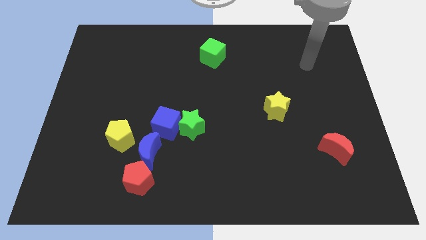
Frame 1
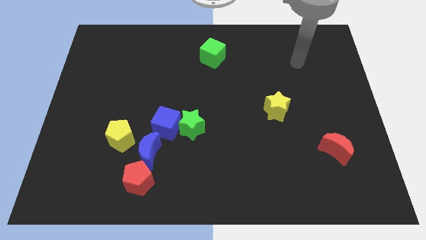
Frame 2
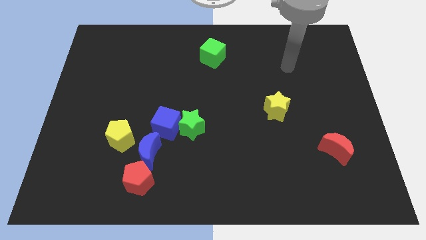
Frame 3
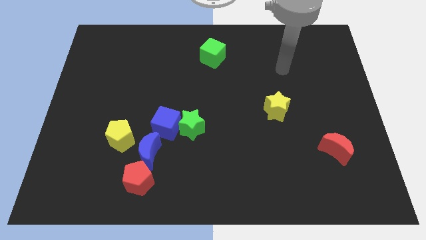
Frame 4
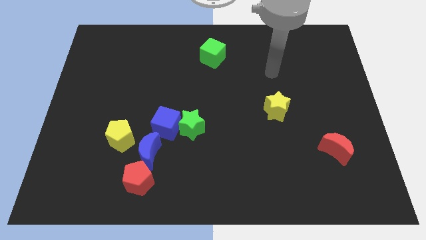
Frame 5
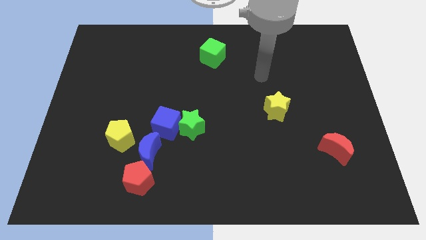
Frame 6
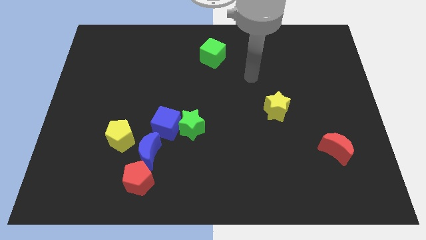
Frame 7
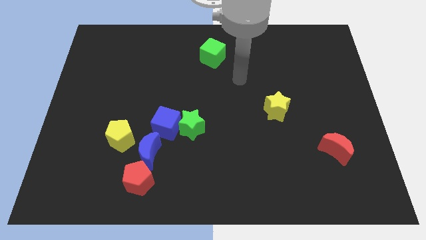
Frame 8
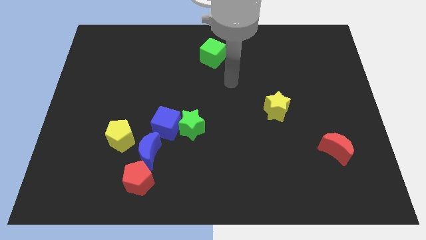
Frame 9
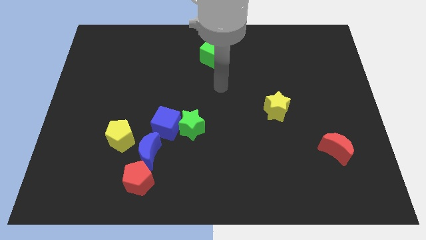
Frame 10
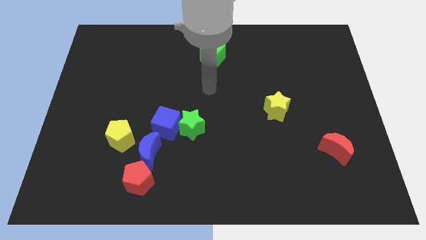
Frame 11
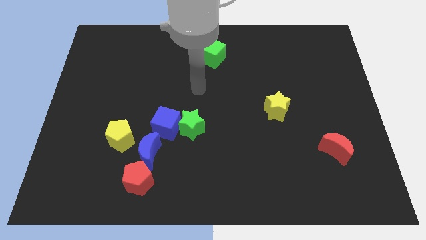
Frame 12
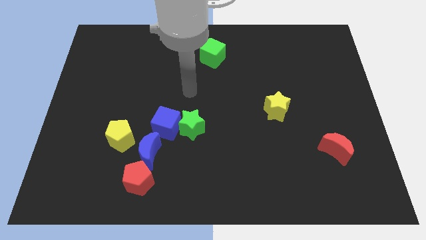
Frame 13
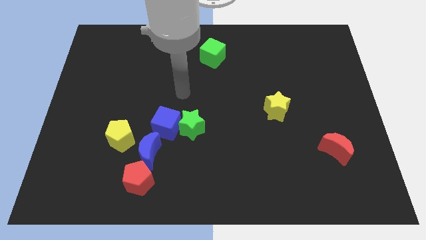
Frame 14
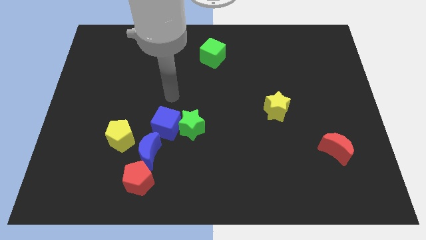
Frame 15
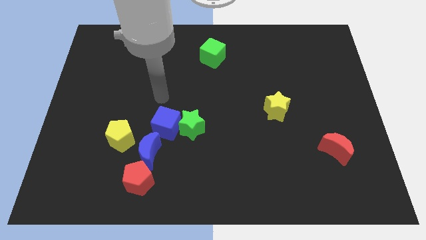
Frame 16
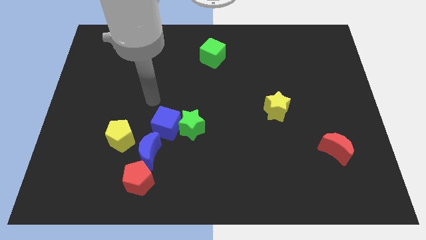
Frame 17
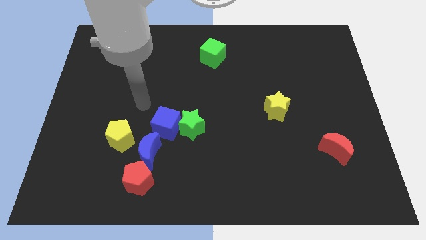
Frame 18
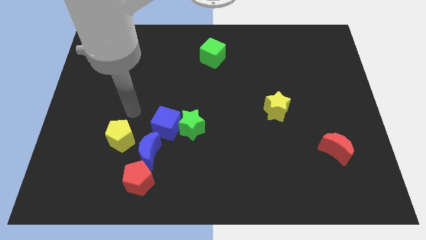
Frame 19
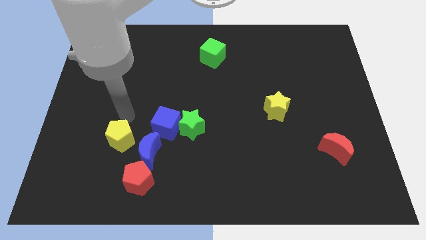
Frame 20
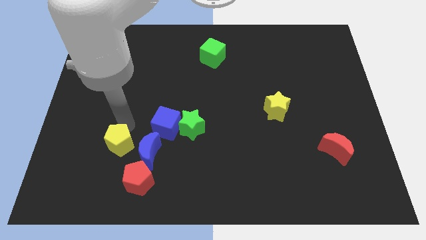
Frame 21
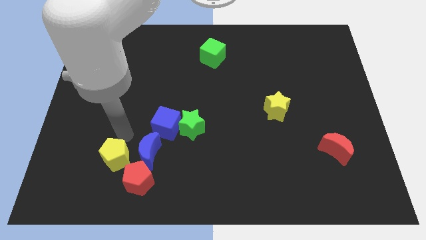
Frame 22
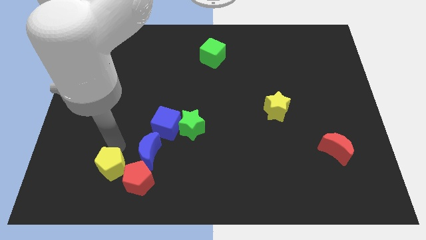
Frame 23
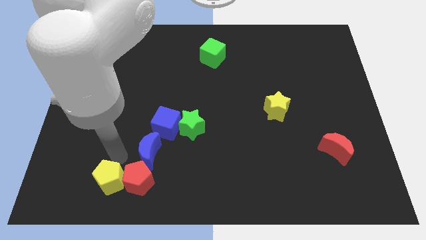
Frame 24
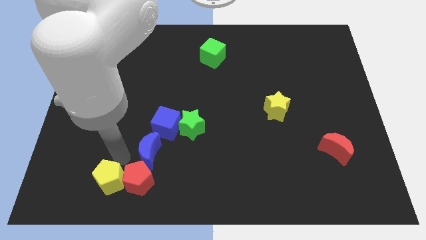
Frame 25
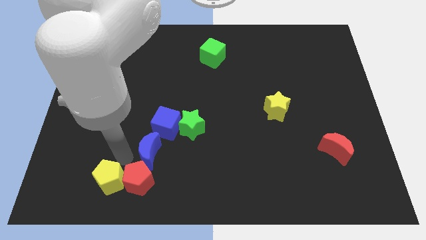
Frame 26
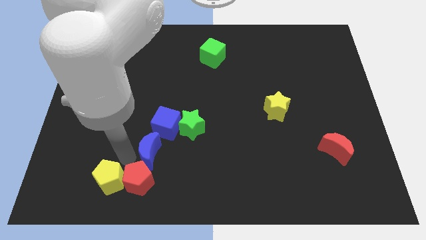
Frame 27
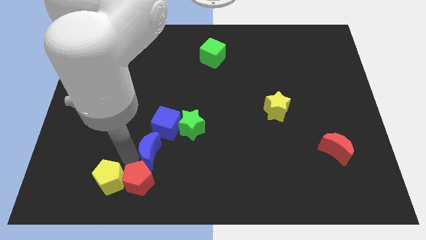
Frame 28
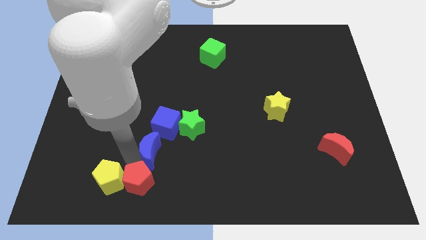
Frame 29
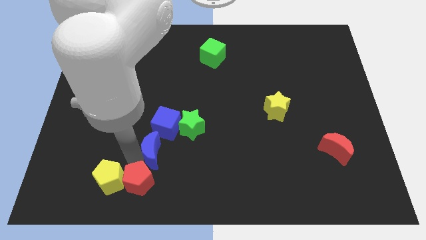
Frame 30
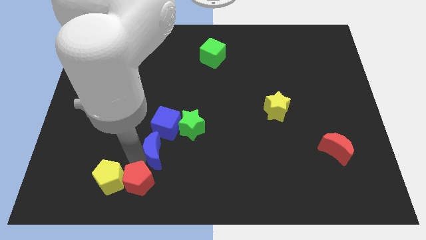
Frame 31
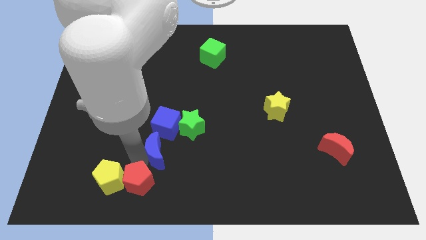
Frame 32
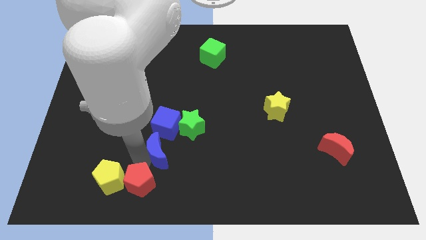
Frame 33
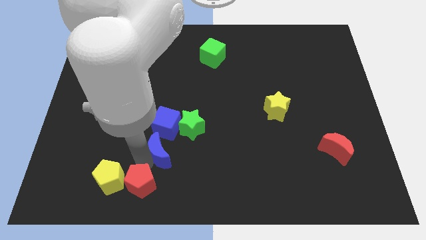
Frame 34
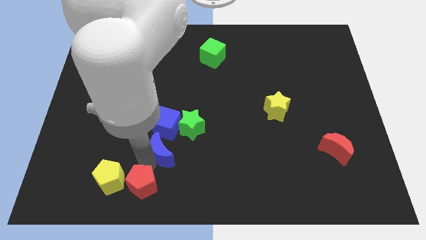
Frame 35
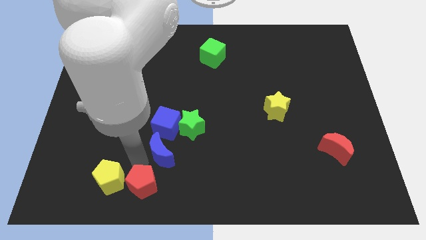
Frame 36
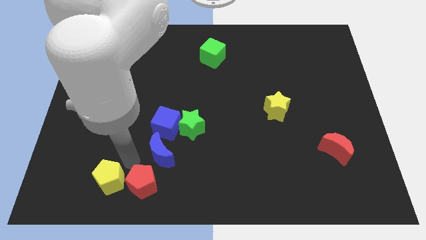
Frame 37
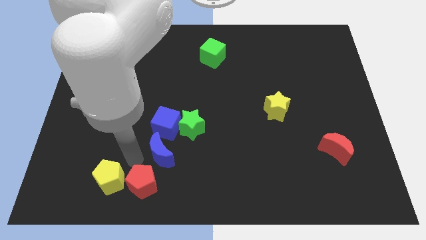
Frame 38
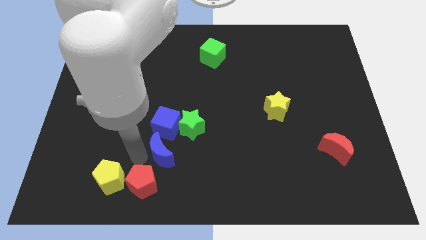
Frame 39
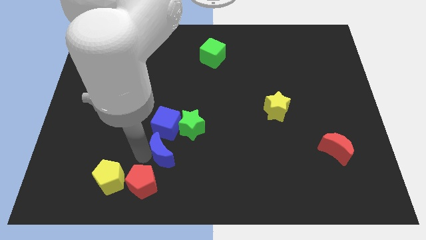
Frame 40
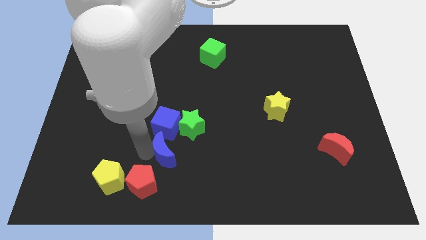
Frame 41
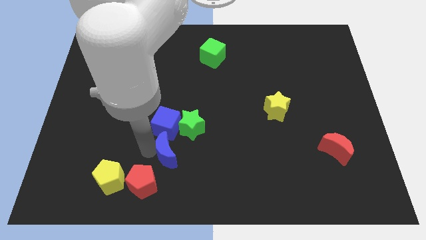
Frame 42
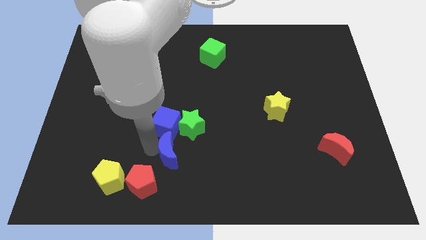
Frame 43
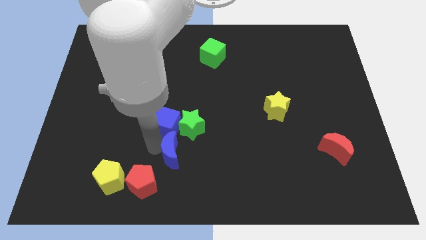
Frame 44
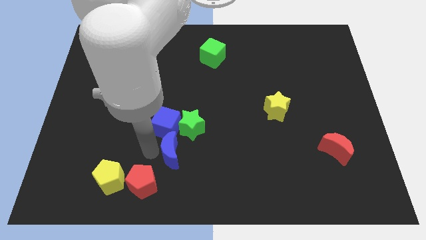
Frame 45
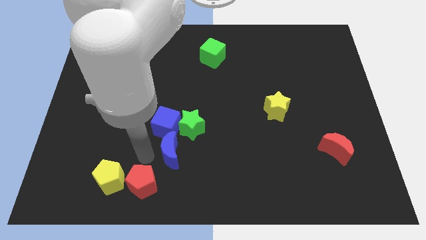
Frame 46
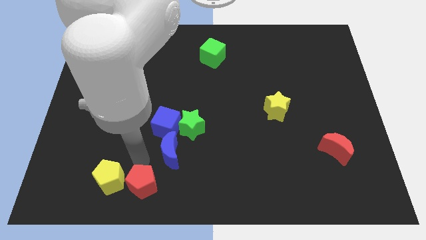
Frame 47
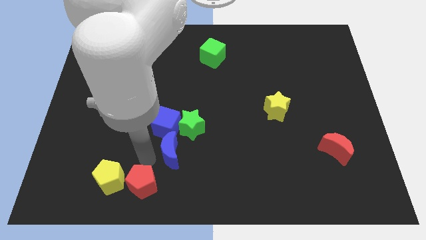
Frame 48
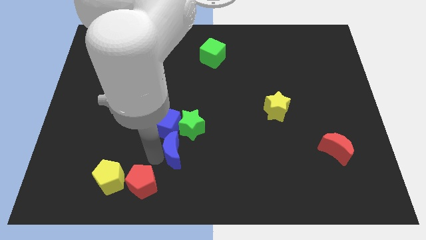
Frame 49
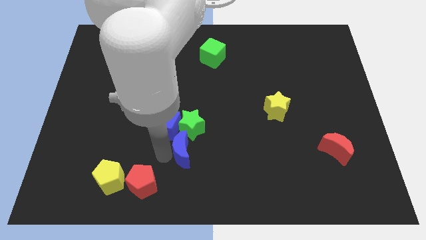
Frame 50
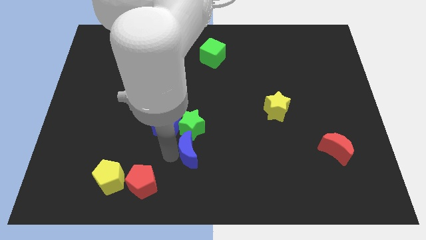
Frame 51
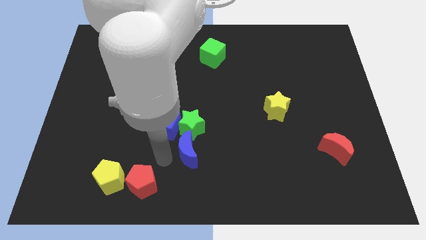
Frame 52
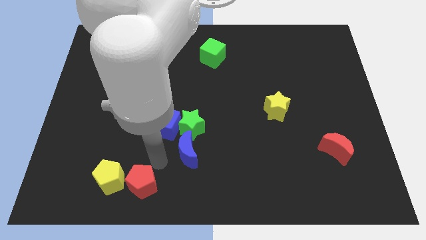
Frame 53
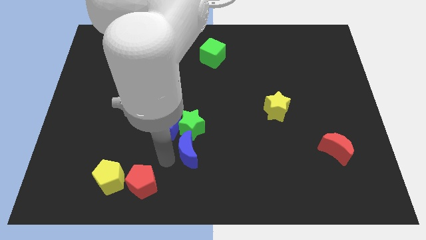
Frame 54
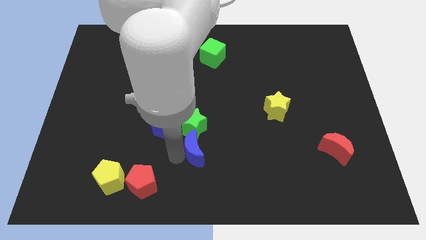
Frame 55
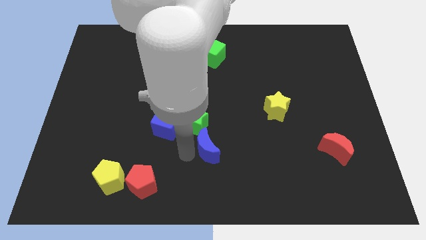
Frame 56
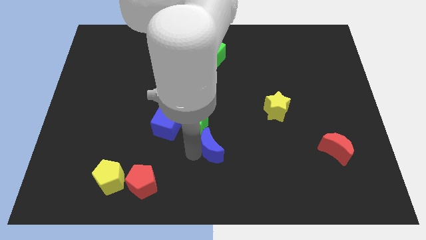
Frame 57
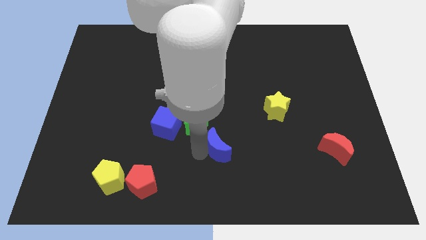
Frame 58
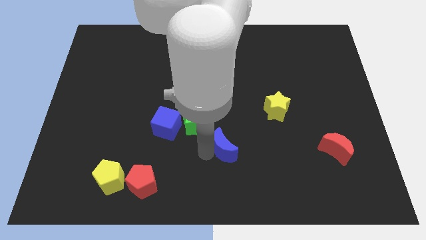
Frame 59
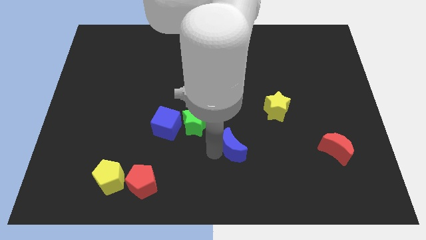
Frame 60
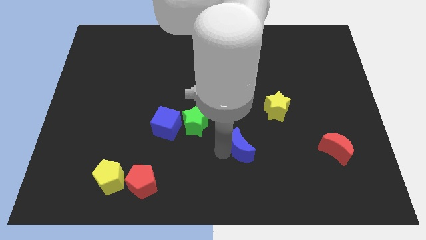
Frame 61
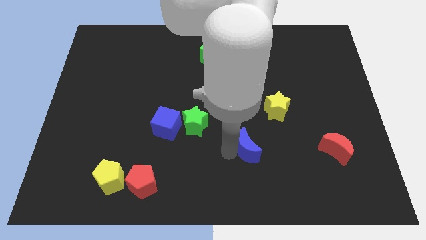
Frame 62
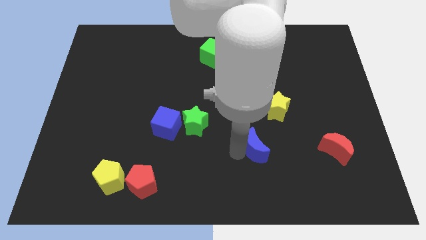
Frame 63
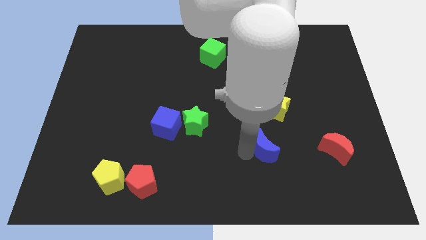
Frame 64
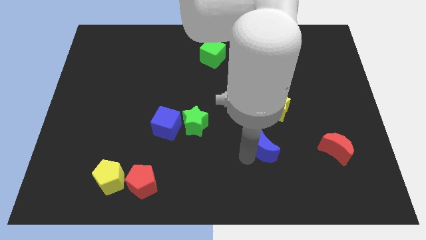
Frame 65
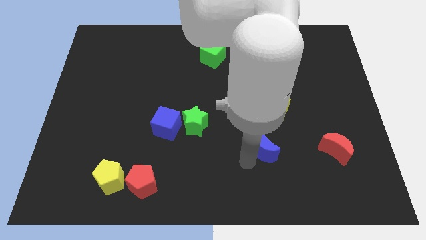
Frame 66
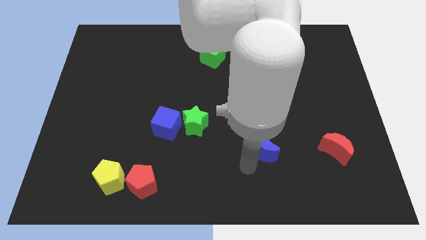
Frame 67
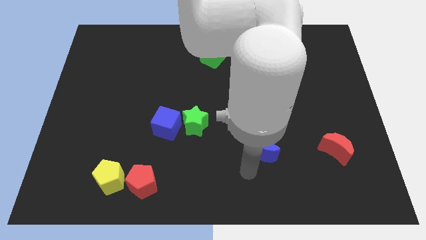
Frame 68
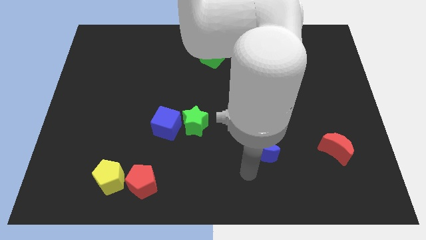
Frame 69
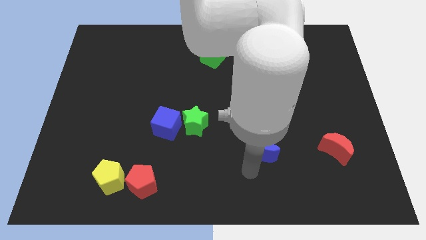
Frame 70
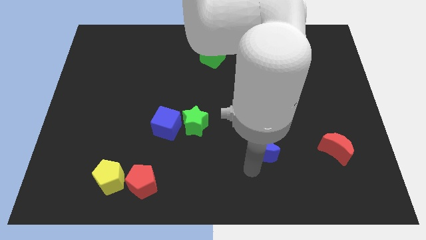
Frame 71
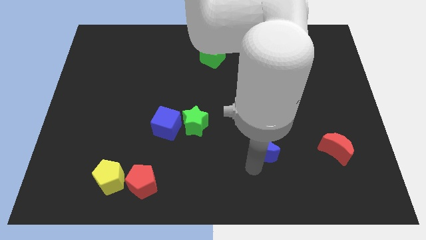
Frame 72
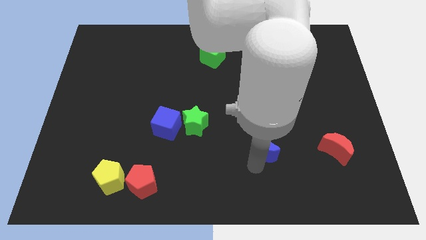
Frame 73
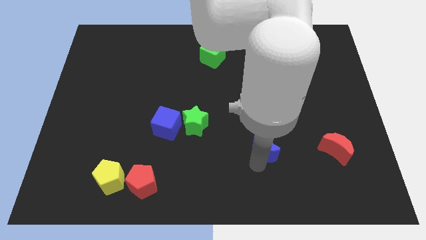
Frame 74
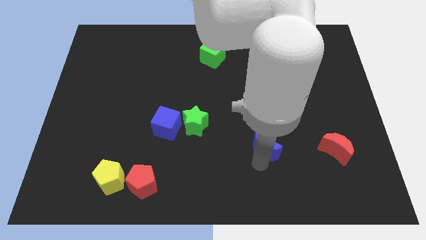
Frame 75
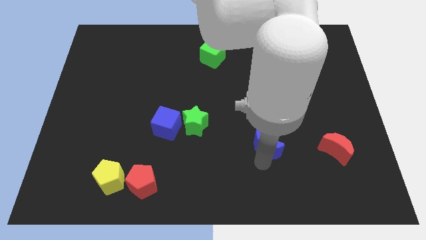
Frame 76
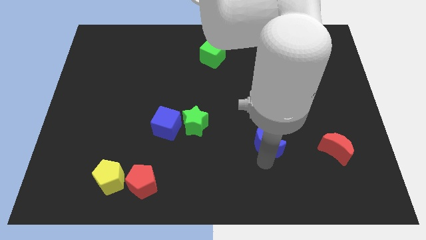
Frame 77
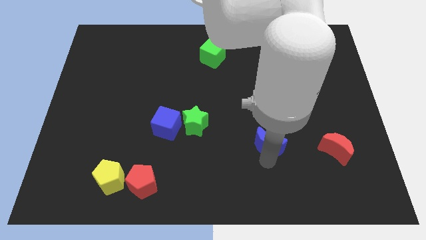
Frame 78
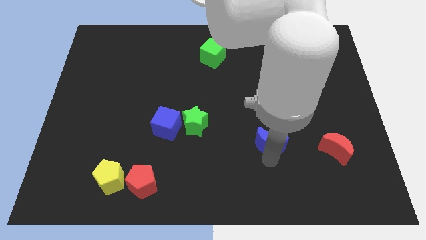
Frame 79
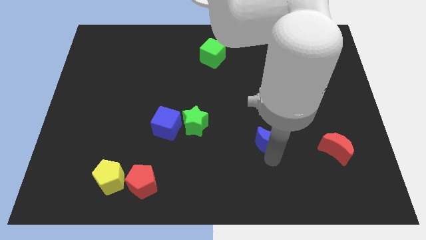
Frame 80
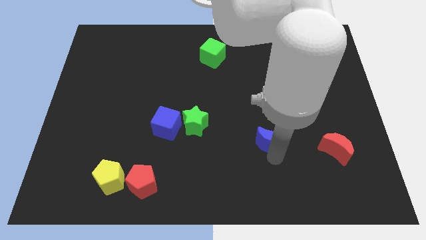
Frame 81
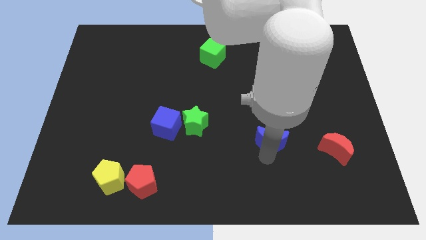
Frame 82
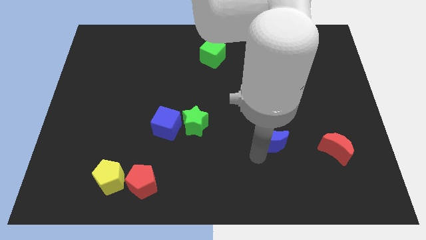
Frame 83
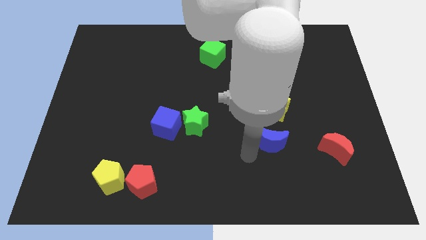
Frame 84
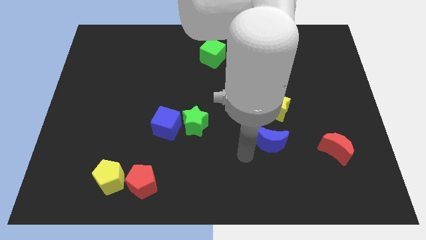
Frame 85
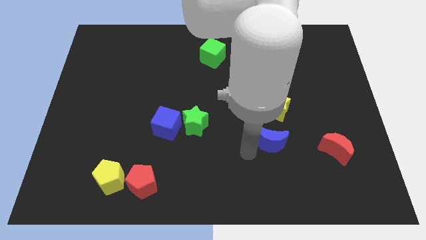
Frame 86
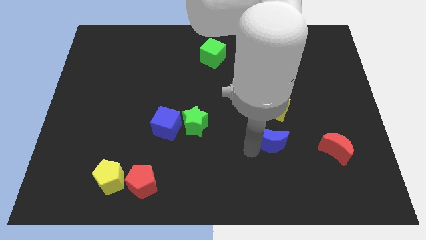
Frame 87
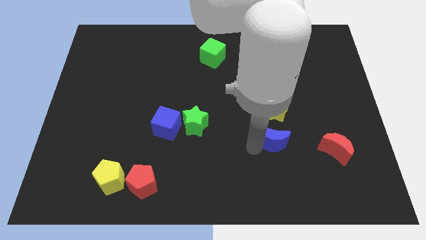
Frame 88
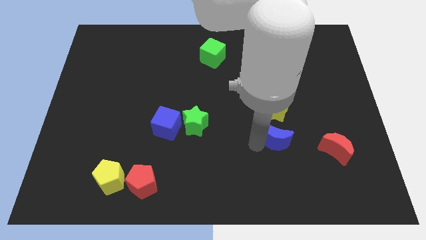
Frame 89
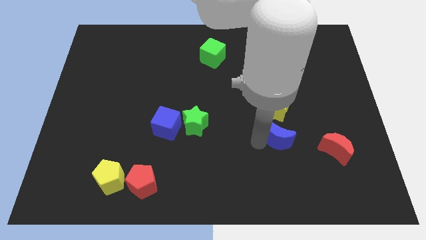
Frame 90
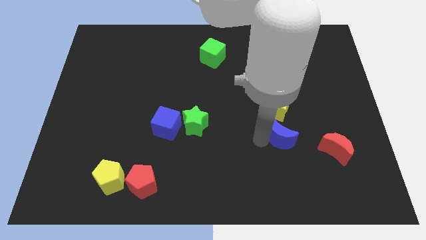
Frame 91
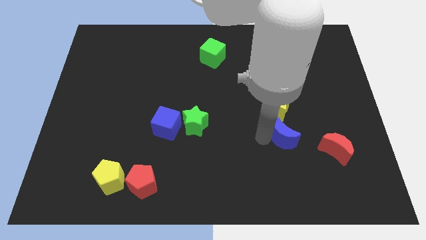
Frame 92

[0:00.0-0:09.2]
push the blue moon to the bottom right of the yellow star
